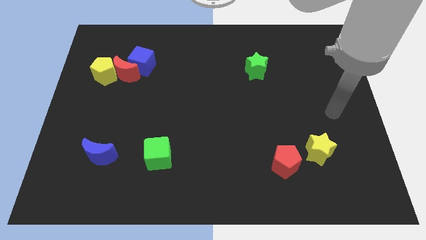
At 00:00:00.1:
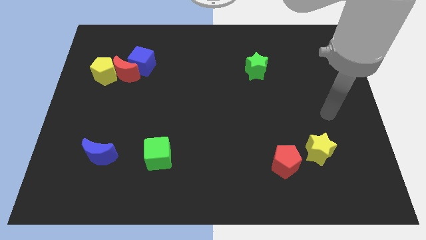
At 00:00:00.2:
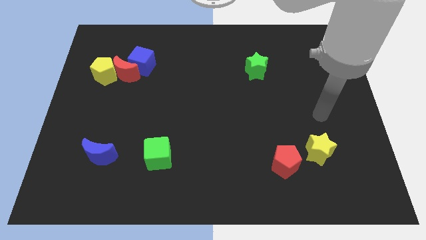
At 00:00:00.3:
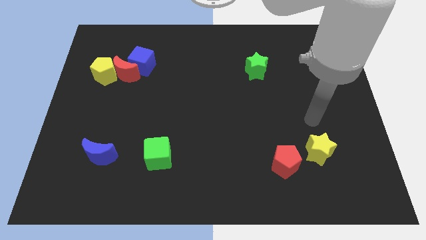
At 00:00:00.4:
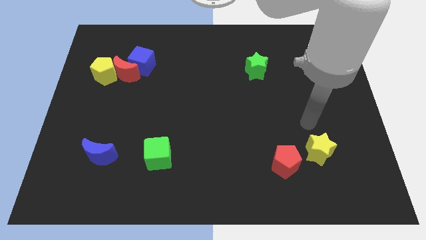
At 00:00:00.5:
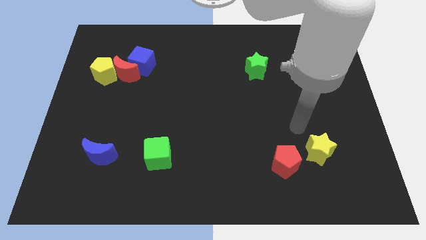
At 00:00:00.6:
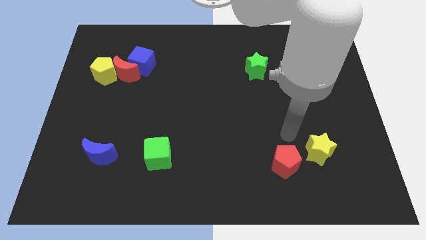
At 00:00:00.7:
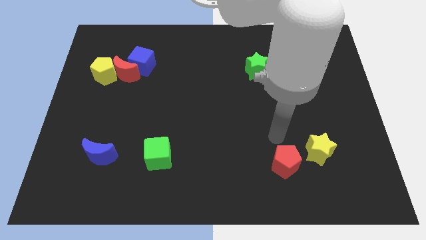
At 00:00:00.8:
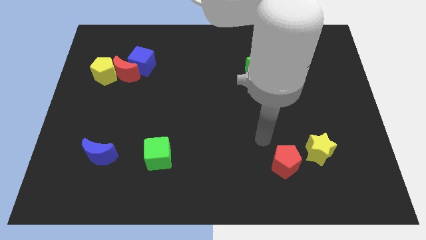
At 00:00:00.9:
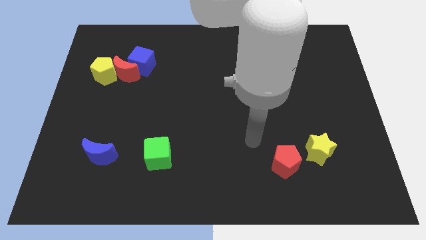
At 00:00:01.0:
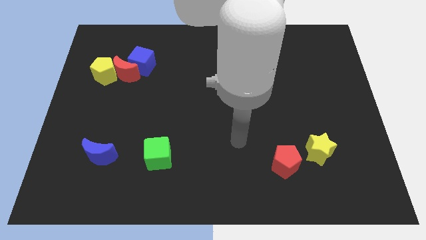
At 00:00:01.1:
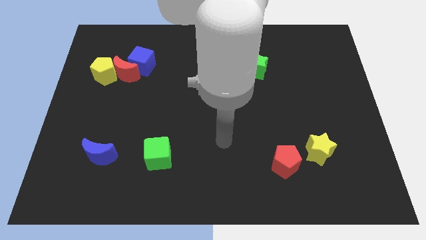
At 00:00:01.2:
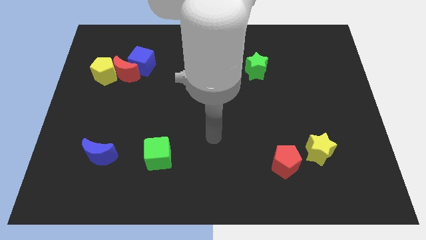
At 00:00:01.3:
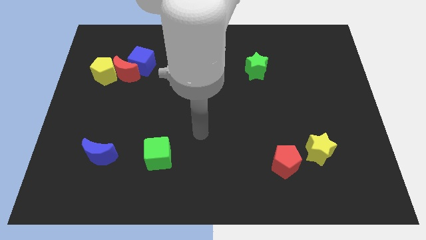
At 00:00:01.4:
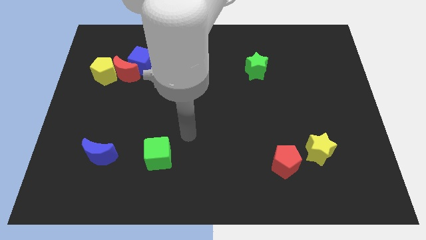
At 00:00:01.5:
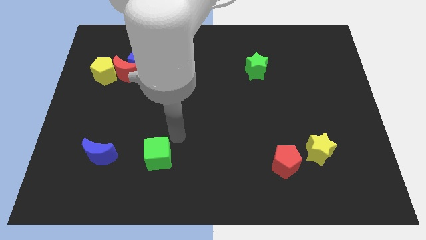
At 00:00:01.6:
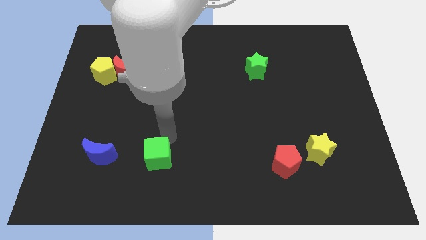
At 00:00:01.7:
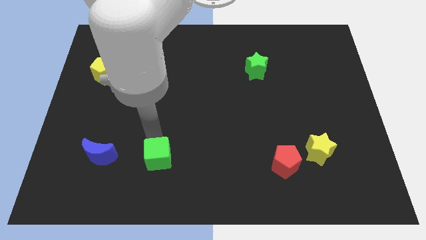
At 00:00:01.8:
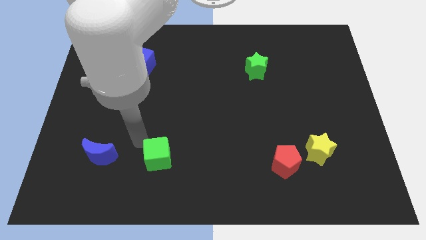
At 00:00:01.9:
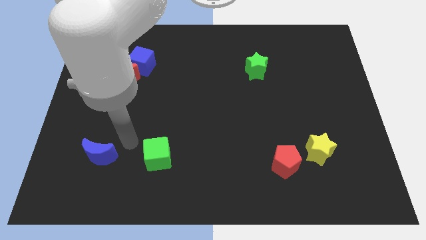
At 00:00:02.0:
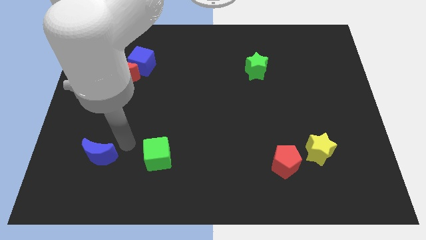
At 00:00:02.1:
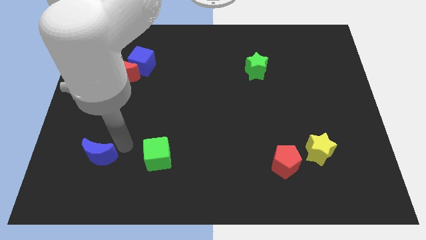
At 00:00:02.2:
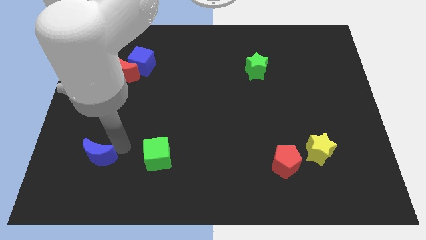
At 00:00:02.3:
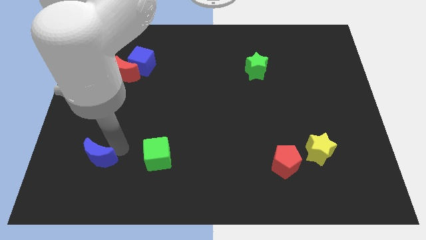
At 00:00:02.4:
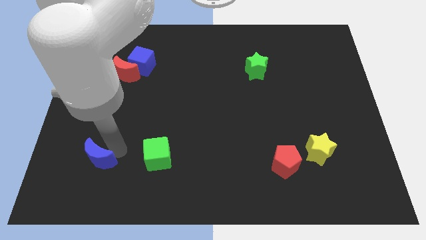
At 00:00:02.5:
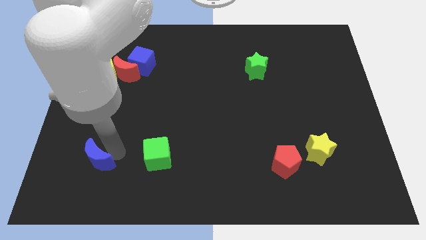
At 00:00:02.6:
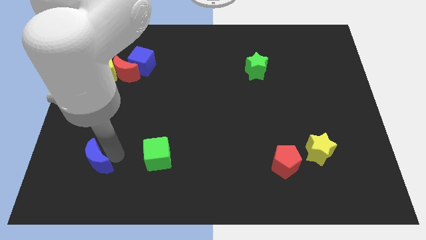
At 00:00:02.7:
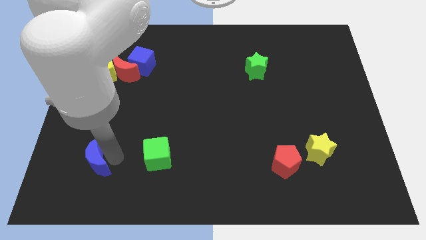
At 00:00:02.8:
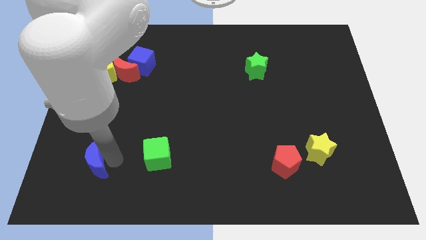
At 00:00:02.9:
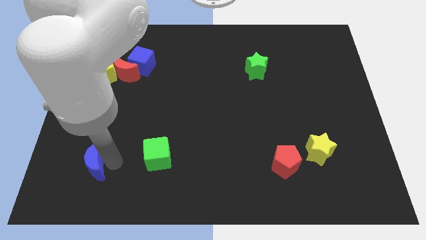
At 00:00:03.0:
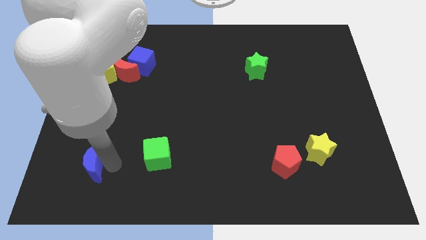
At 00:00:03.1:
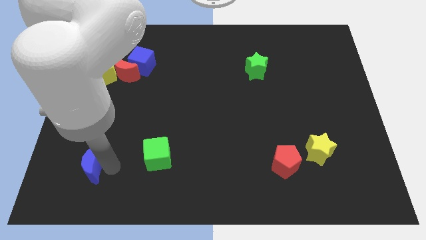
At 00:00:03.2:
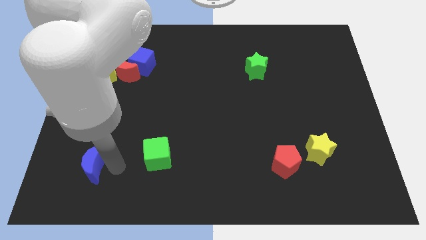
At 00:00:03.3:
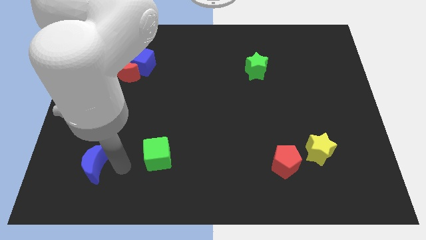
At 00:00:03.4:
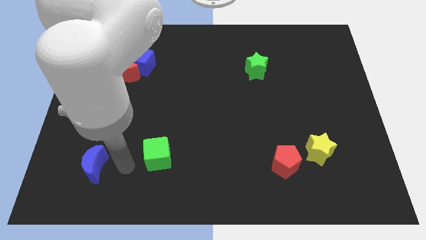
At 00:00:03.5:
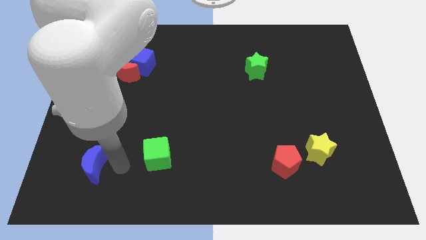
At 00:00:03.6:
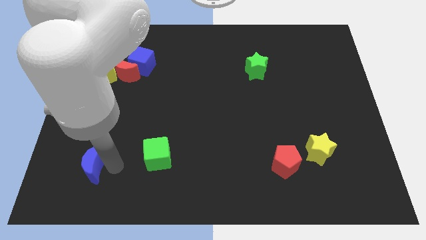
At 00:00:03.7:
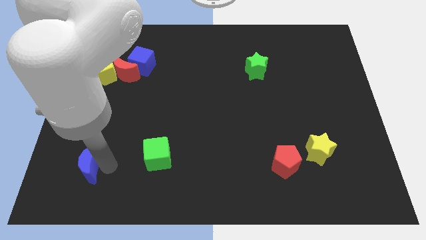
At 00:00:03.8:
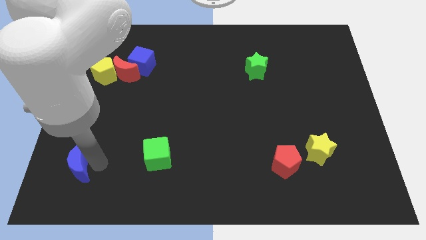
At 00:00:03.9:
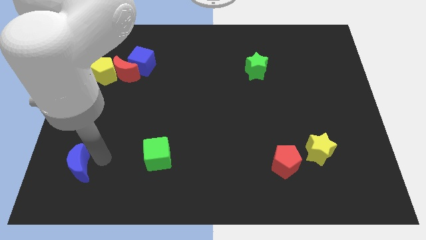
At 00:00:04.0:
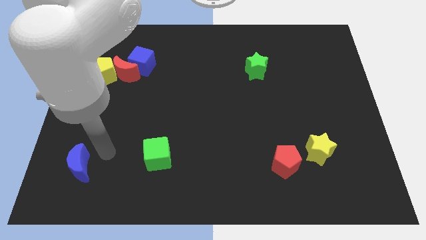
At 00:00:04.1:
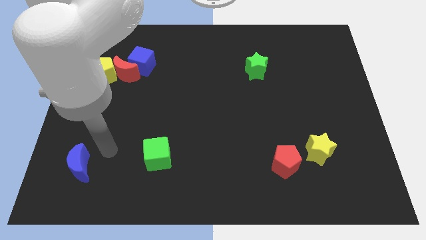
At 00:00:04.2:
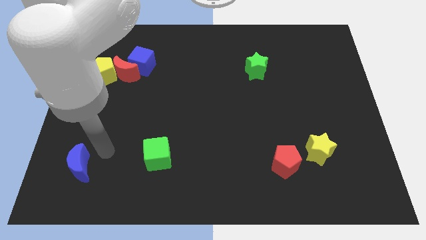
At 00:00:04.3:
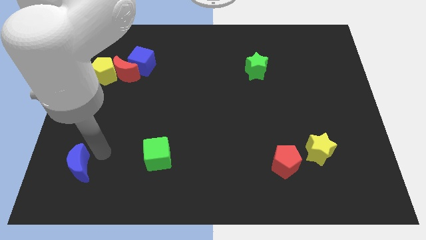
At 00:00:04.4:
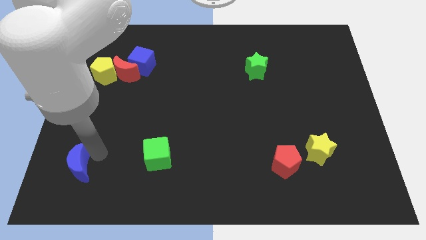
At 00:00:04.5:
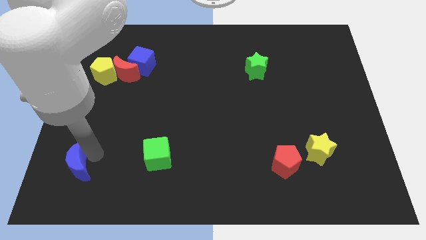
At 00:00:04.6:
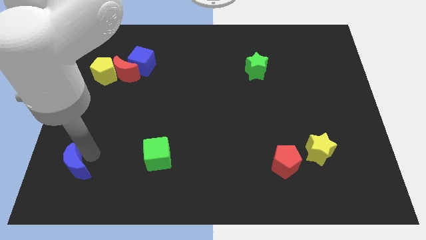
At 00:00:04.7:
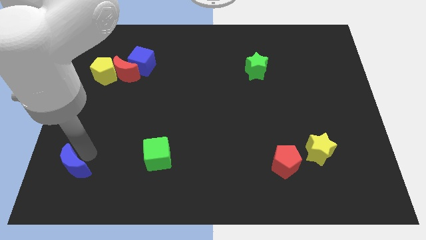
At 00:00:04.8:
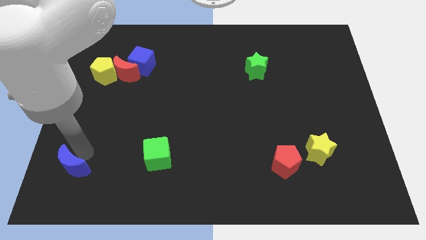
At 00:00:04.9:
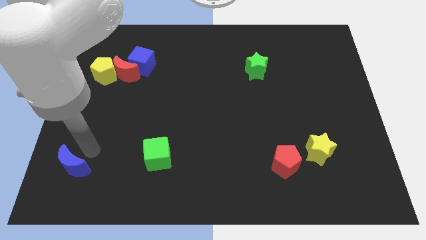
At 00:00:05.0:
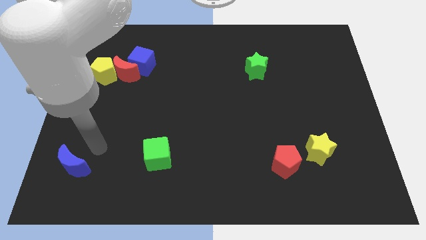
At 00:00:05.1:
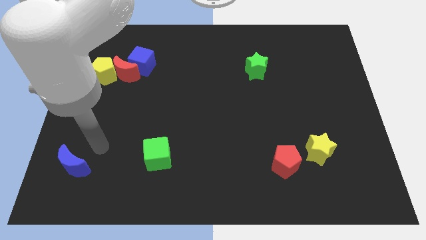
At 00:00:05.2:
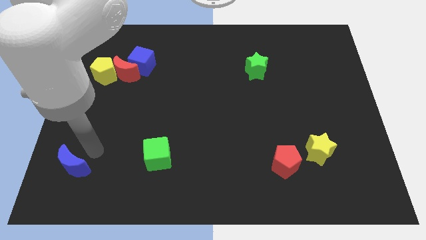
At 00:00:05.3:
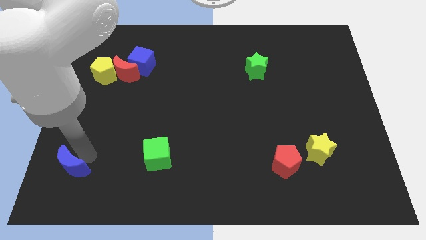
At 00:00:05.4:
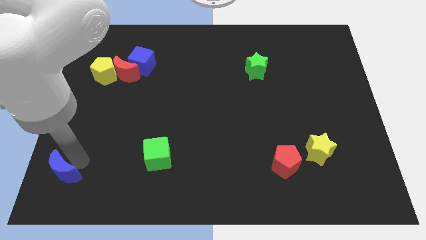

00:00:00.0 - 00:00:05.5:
push the blue moon to the bottom left of the board

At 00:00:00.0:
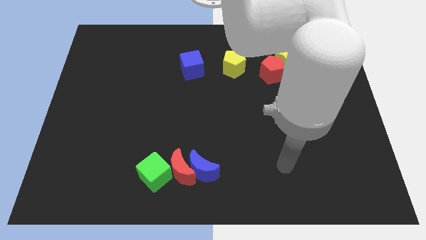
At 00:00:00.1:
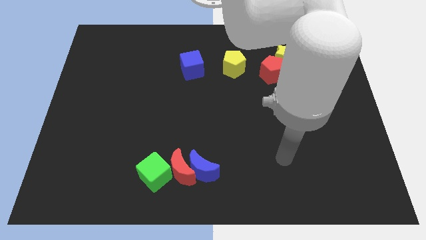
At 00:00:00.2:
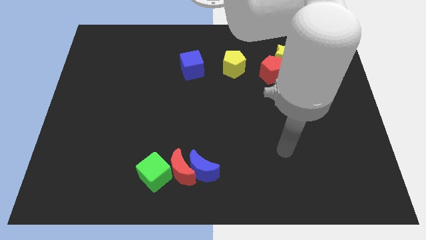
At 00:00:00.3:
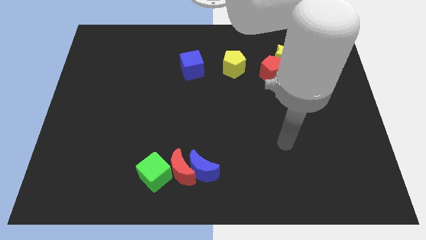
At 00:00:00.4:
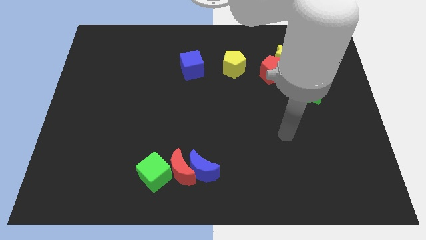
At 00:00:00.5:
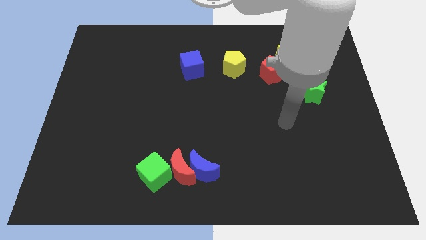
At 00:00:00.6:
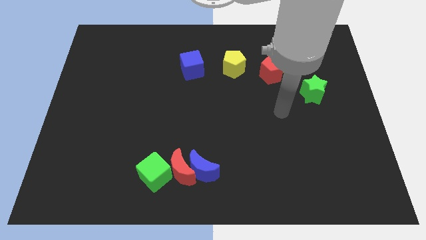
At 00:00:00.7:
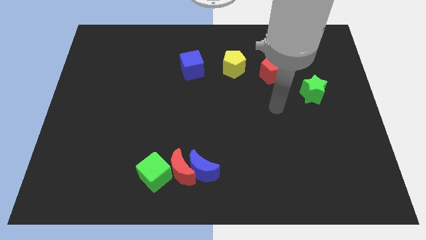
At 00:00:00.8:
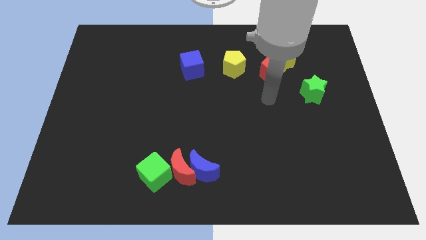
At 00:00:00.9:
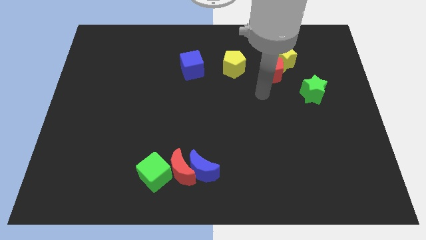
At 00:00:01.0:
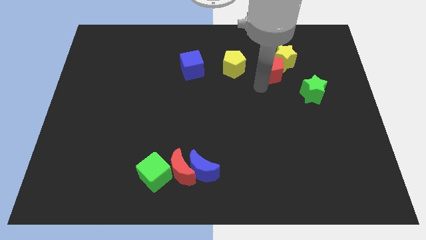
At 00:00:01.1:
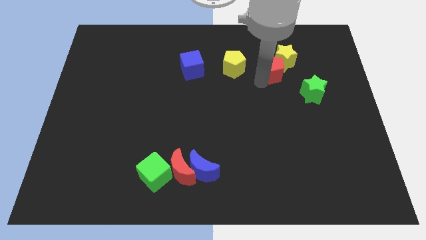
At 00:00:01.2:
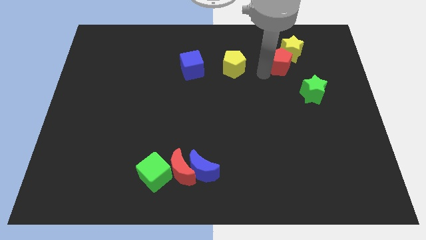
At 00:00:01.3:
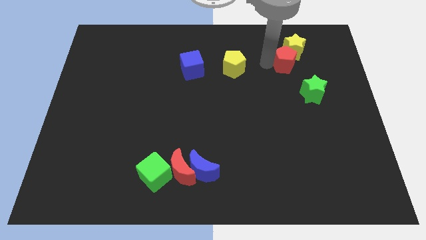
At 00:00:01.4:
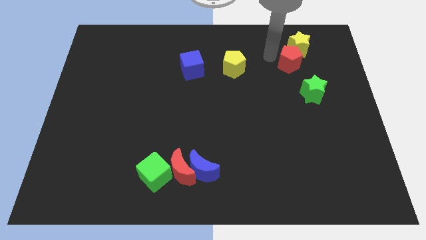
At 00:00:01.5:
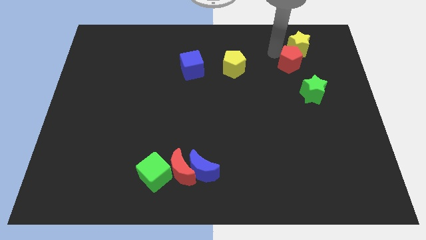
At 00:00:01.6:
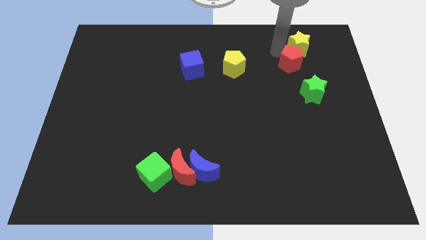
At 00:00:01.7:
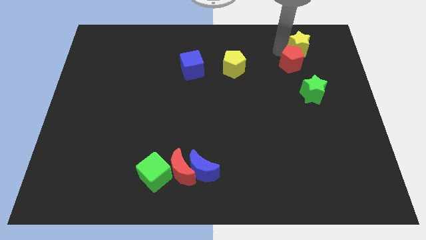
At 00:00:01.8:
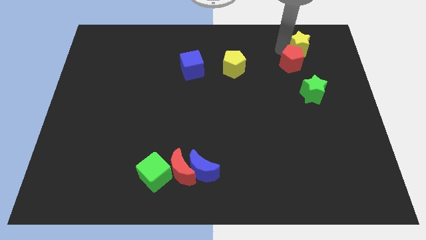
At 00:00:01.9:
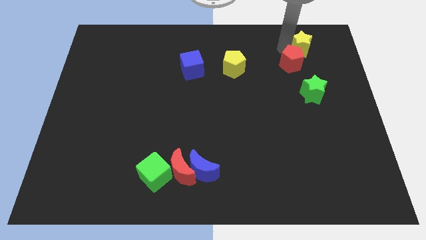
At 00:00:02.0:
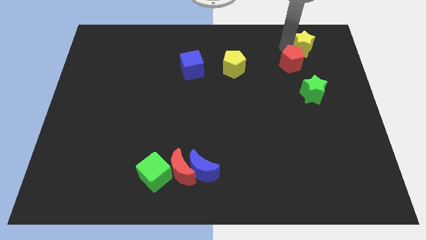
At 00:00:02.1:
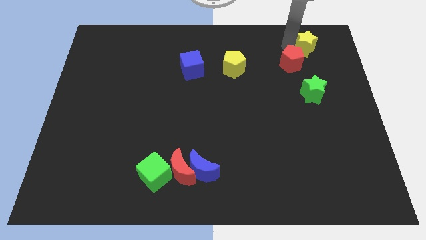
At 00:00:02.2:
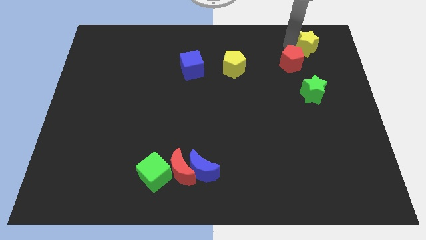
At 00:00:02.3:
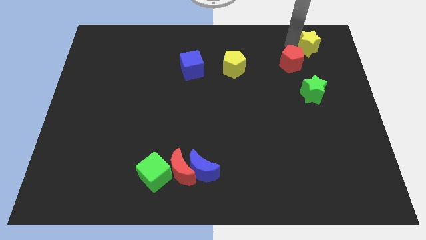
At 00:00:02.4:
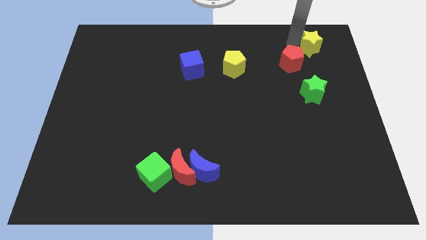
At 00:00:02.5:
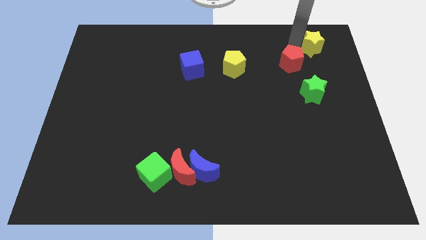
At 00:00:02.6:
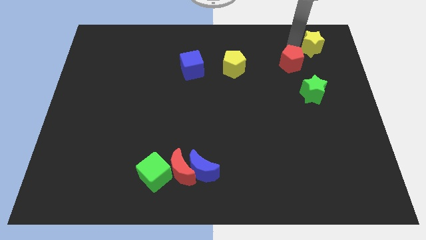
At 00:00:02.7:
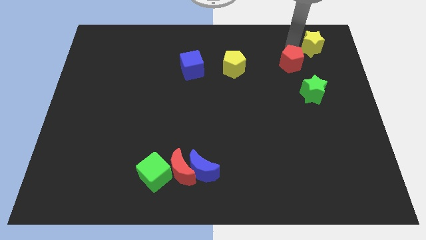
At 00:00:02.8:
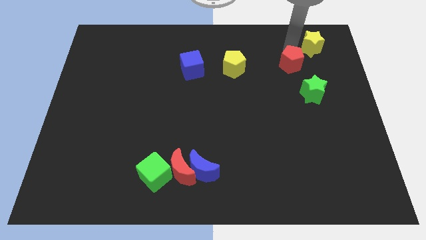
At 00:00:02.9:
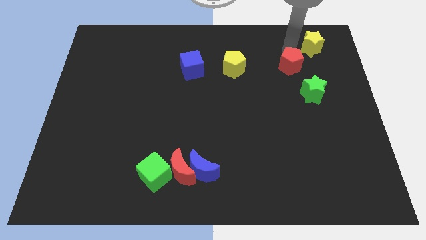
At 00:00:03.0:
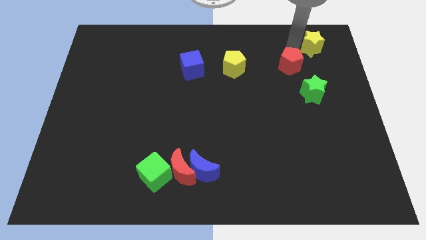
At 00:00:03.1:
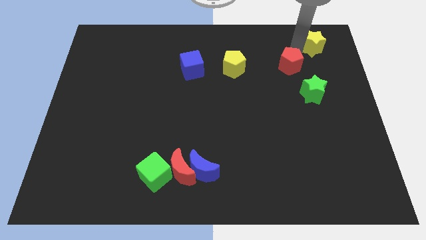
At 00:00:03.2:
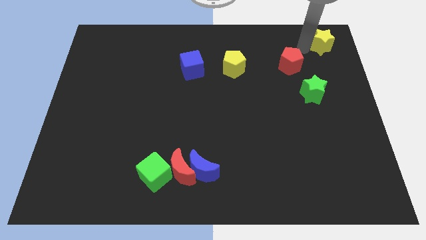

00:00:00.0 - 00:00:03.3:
move the yellow star to the top right of the board
